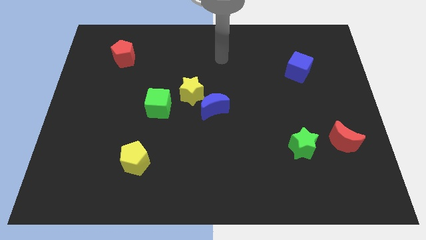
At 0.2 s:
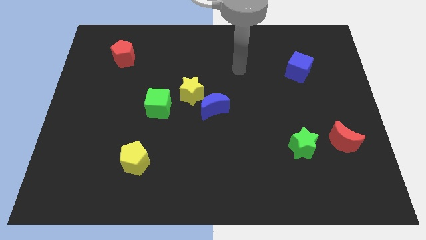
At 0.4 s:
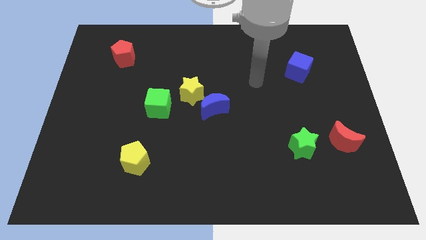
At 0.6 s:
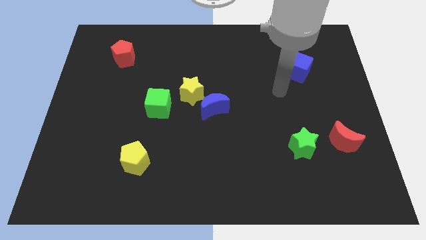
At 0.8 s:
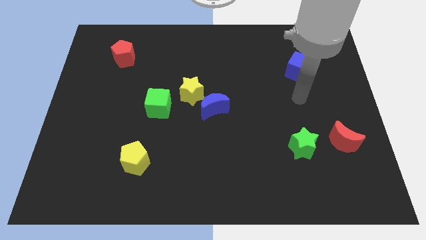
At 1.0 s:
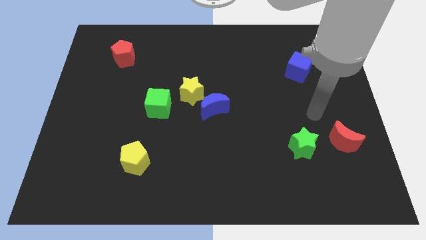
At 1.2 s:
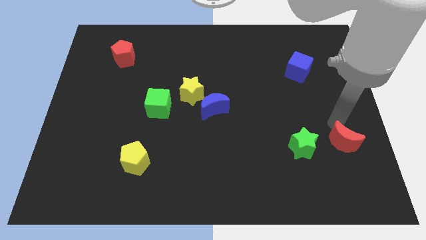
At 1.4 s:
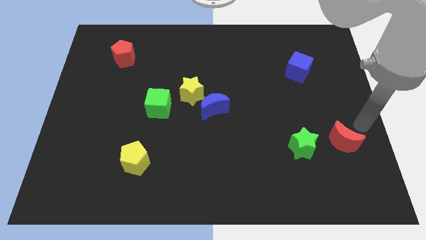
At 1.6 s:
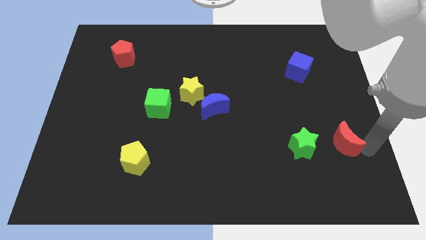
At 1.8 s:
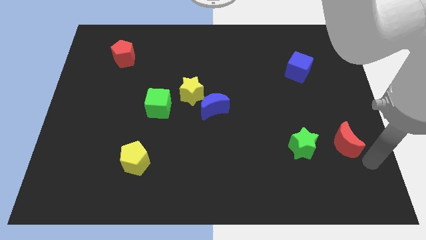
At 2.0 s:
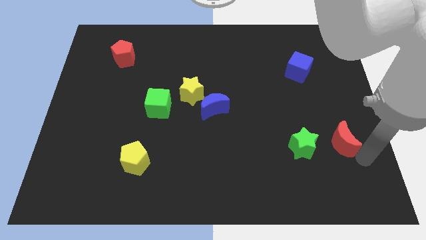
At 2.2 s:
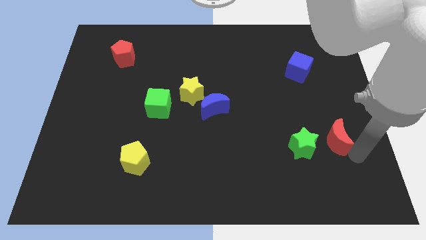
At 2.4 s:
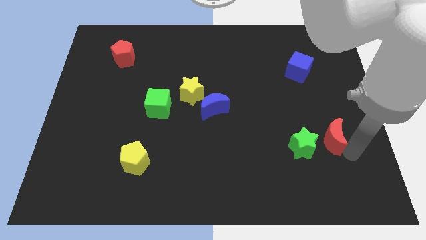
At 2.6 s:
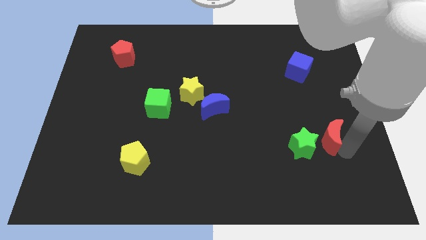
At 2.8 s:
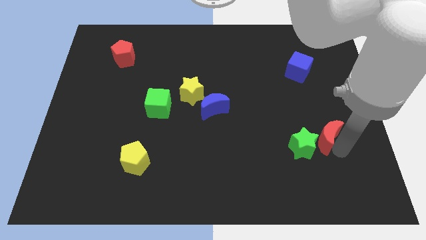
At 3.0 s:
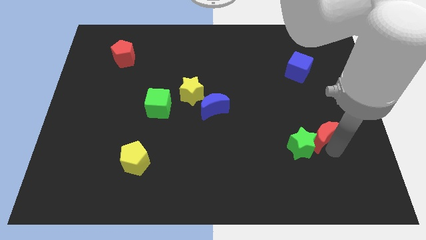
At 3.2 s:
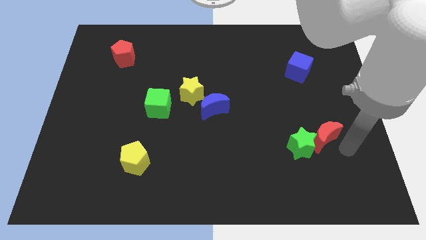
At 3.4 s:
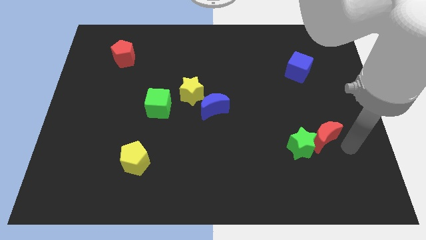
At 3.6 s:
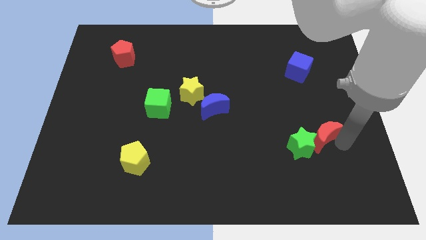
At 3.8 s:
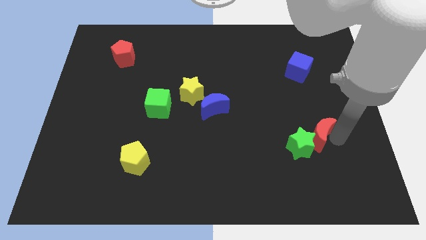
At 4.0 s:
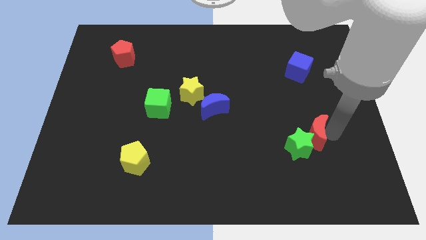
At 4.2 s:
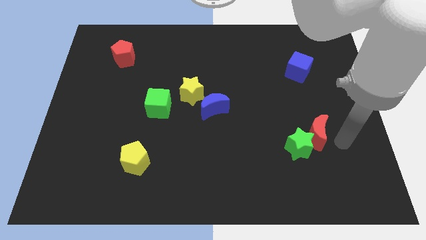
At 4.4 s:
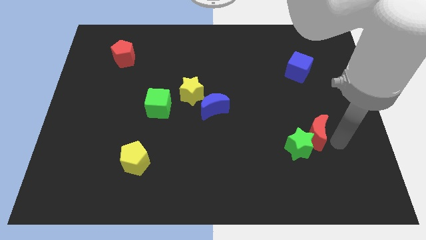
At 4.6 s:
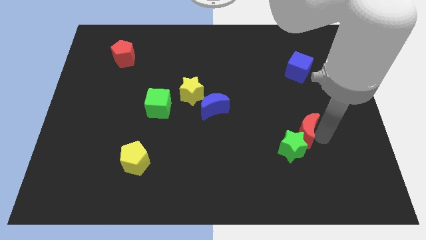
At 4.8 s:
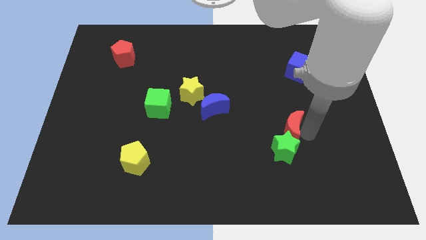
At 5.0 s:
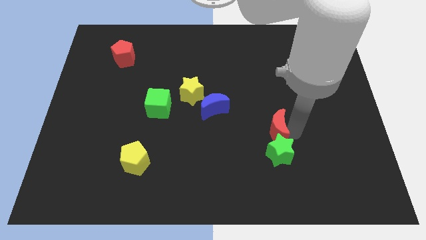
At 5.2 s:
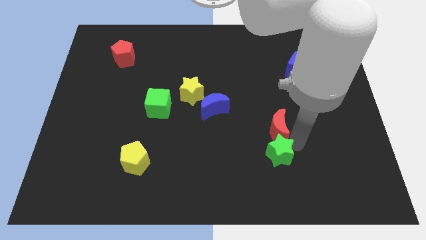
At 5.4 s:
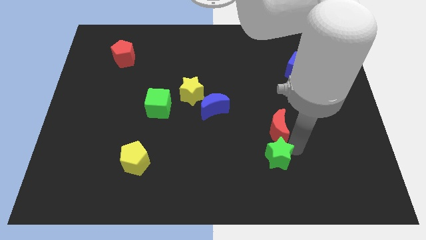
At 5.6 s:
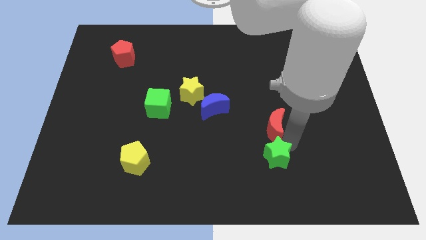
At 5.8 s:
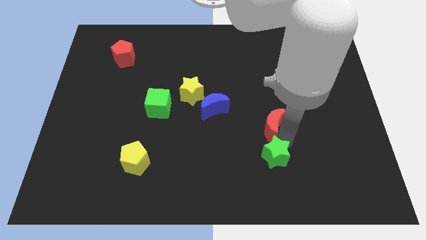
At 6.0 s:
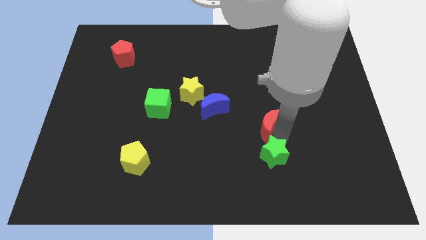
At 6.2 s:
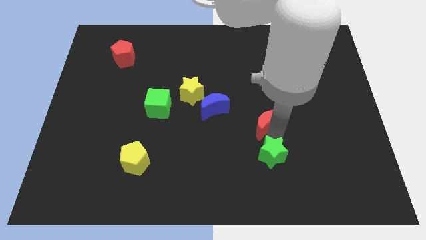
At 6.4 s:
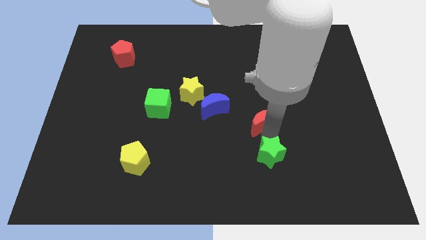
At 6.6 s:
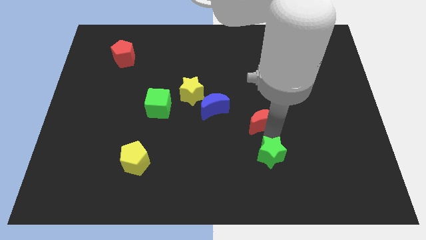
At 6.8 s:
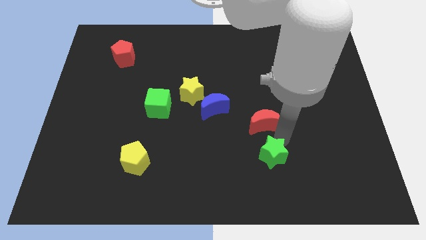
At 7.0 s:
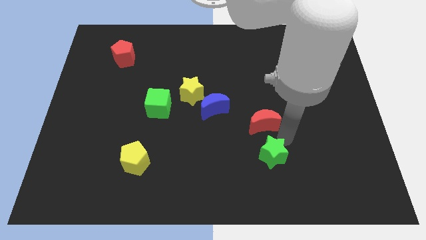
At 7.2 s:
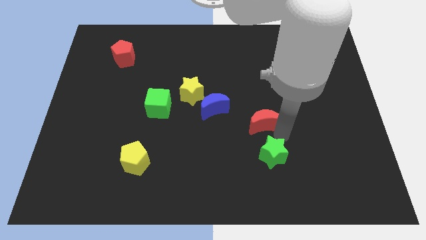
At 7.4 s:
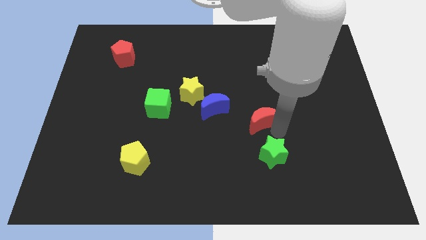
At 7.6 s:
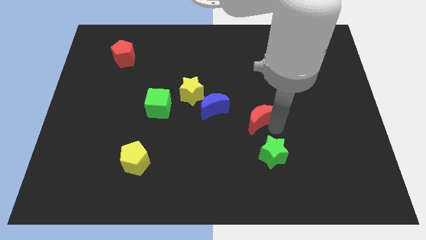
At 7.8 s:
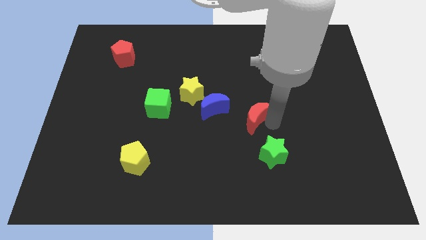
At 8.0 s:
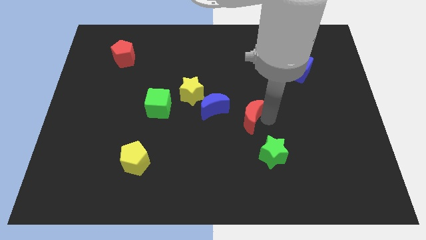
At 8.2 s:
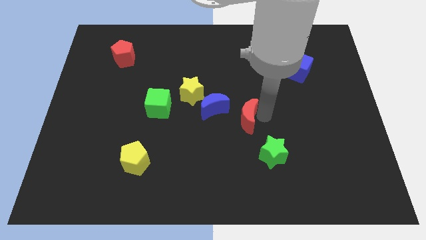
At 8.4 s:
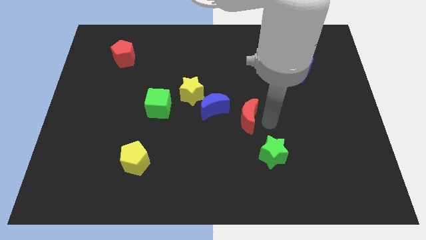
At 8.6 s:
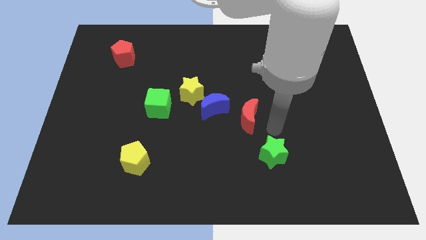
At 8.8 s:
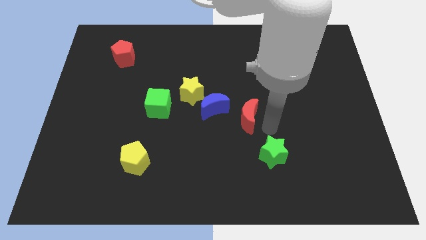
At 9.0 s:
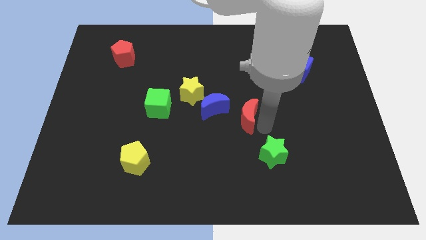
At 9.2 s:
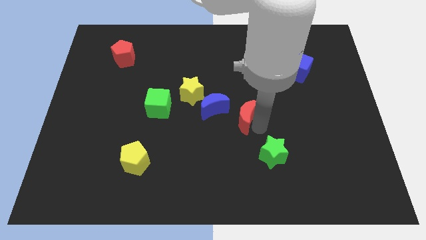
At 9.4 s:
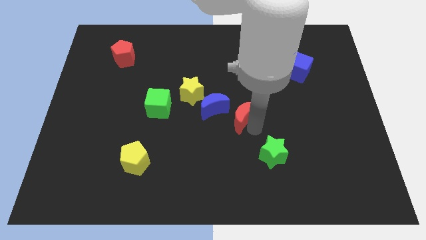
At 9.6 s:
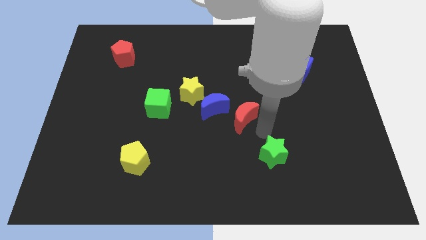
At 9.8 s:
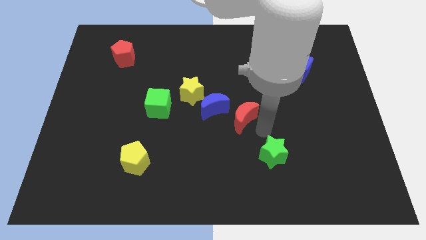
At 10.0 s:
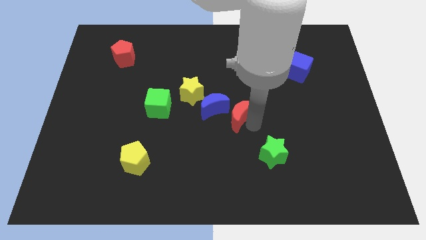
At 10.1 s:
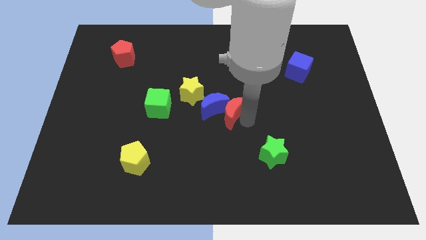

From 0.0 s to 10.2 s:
put the red moon towards the blue moon

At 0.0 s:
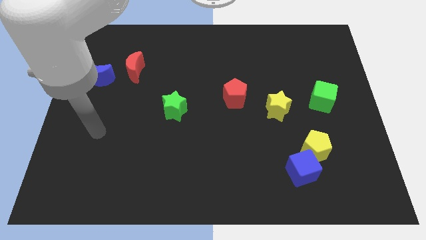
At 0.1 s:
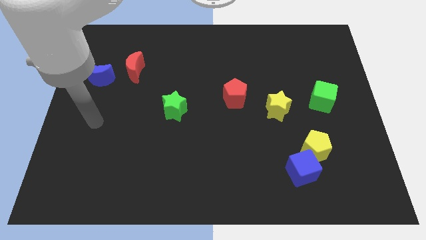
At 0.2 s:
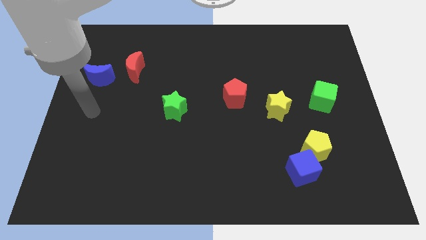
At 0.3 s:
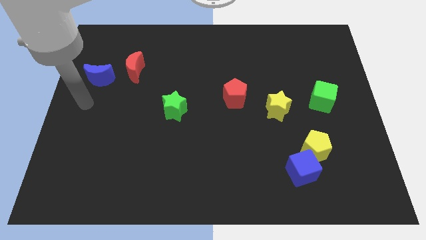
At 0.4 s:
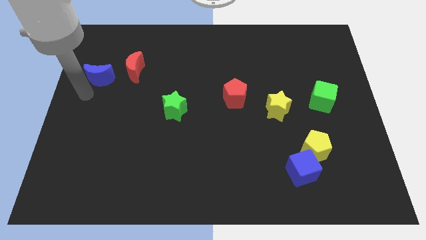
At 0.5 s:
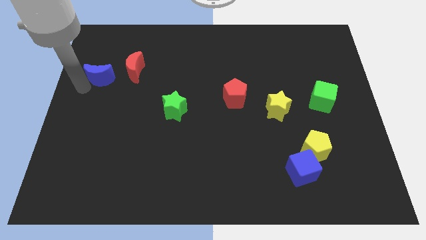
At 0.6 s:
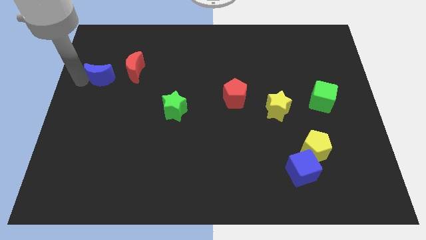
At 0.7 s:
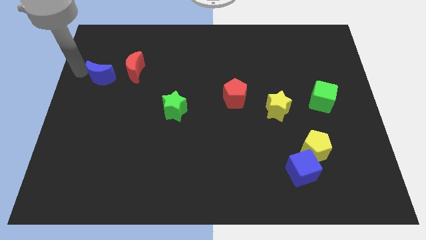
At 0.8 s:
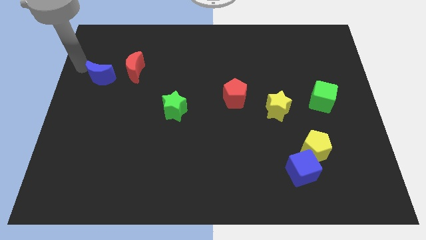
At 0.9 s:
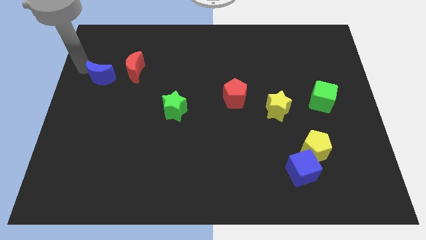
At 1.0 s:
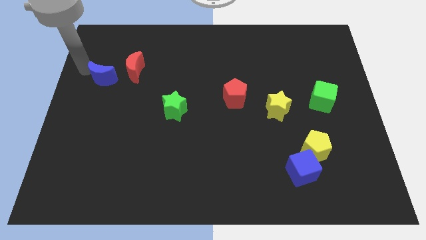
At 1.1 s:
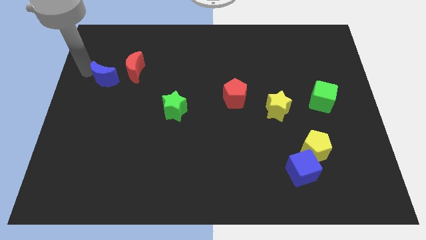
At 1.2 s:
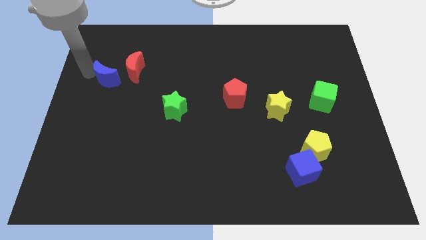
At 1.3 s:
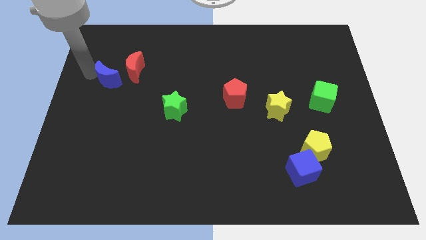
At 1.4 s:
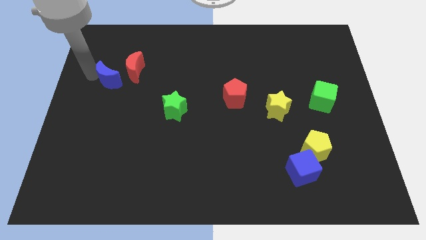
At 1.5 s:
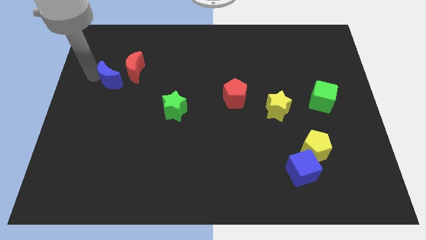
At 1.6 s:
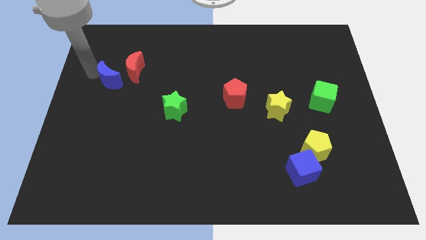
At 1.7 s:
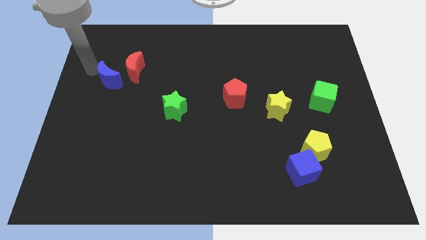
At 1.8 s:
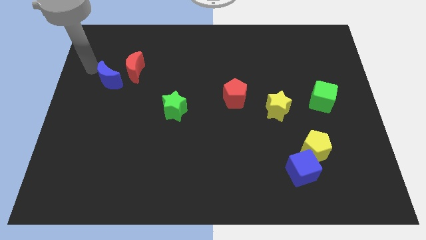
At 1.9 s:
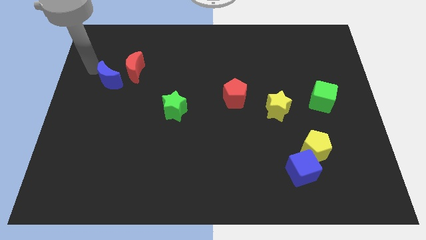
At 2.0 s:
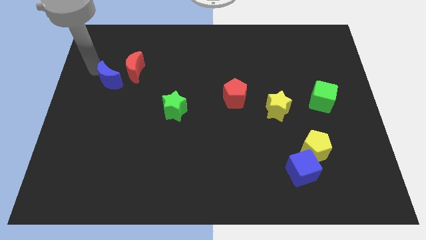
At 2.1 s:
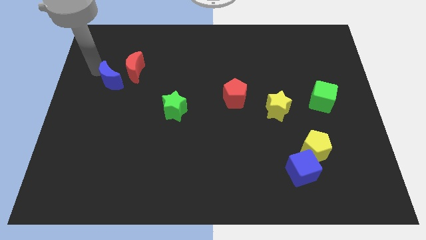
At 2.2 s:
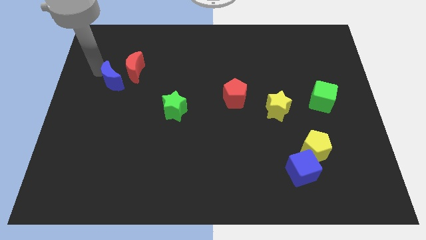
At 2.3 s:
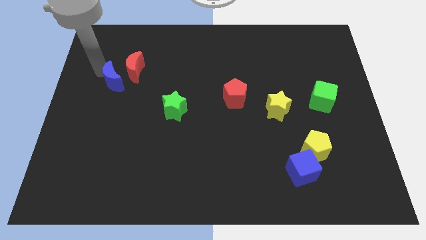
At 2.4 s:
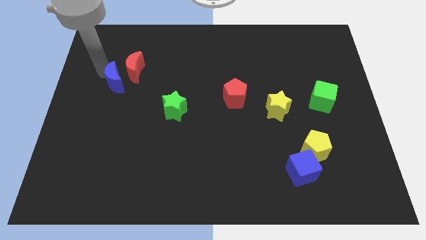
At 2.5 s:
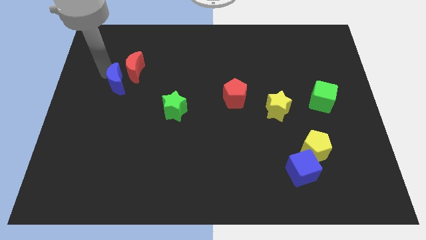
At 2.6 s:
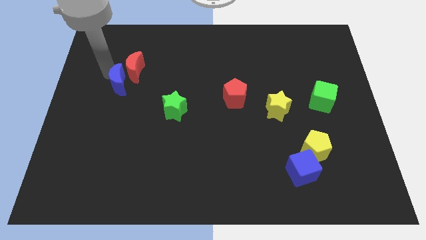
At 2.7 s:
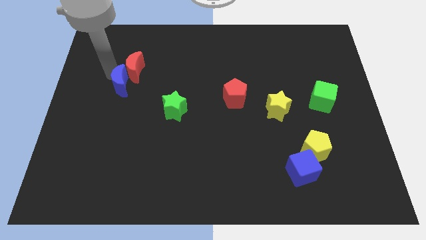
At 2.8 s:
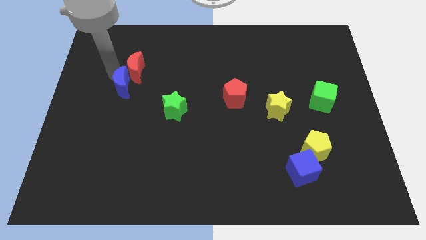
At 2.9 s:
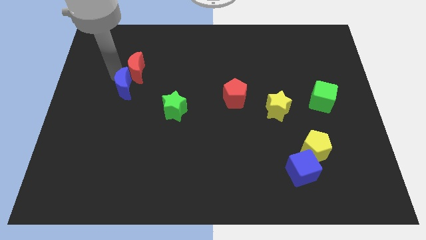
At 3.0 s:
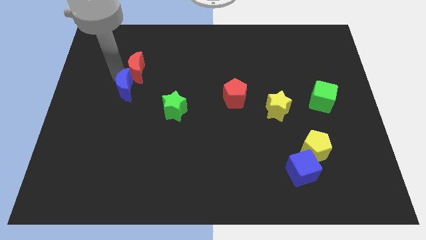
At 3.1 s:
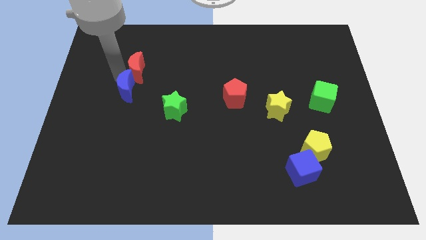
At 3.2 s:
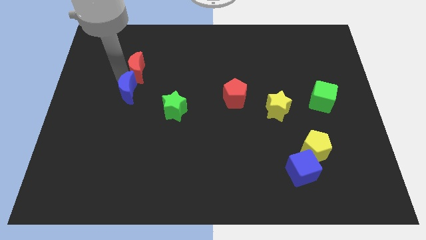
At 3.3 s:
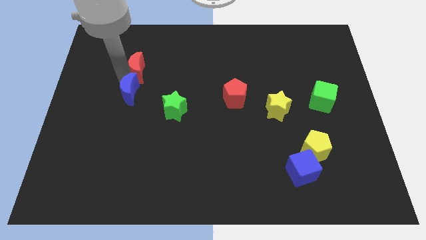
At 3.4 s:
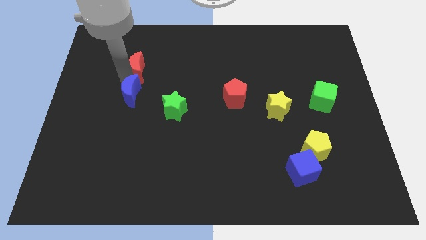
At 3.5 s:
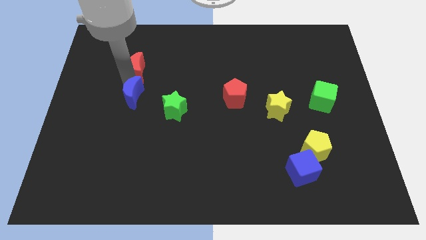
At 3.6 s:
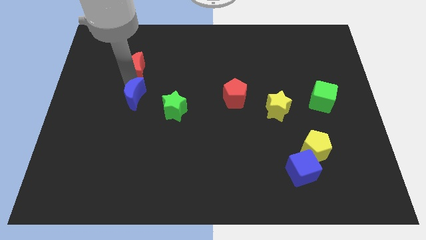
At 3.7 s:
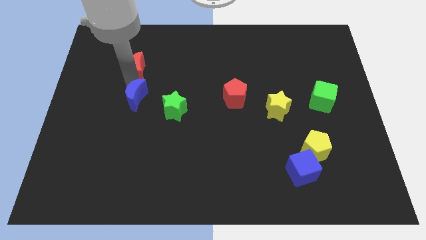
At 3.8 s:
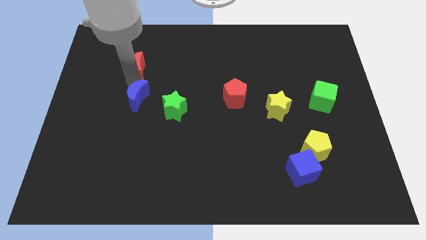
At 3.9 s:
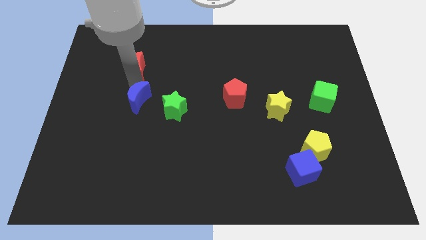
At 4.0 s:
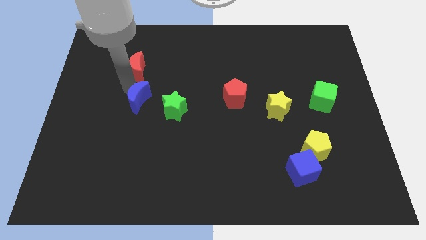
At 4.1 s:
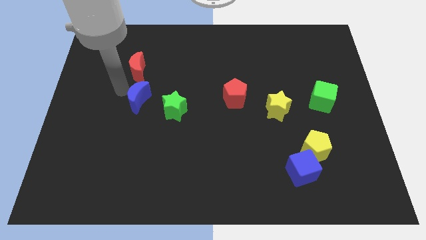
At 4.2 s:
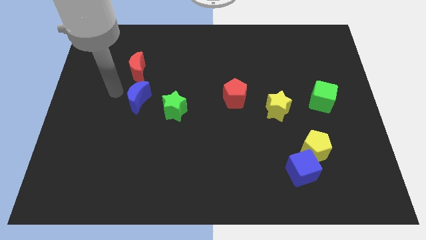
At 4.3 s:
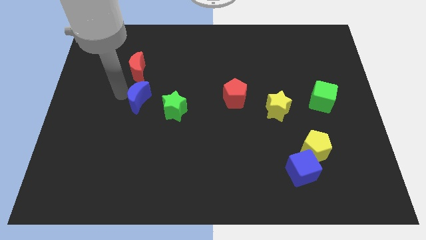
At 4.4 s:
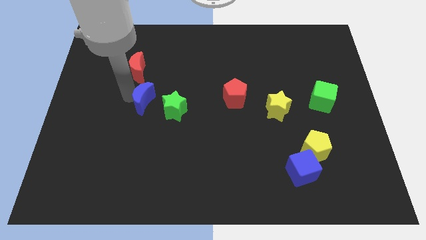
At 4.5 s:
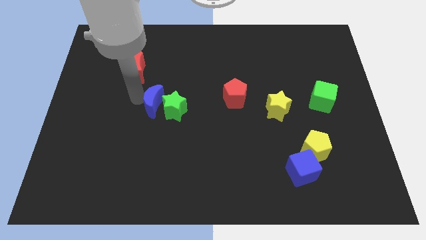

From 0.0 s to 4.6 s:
slide the blue moon to the green star
